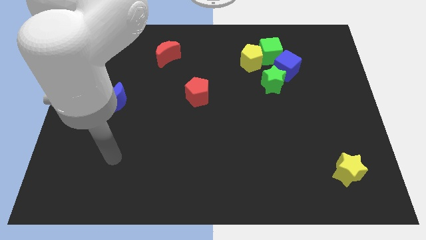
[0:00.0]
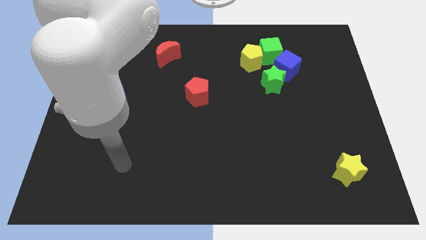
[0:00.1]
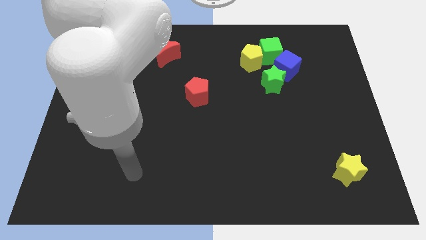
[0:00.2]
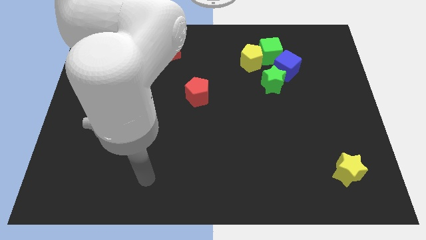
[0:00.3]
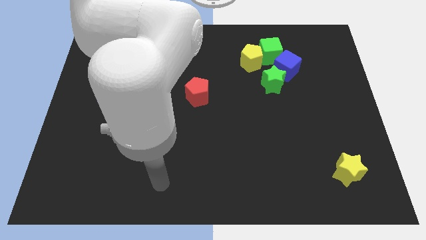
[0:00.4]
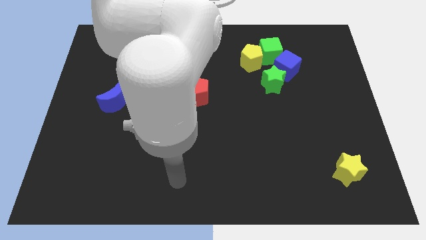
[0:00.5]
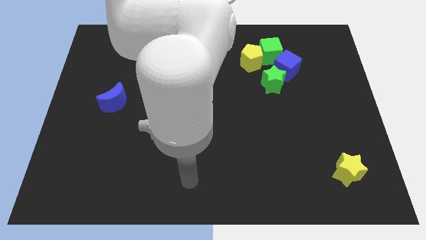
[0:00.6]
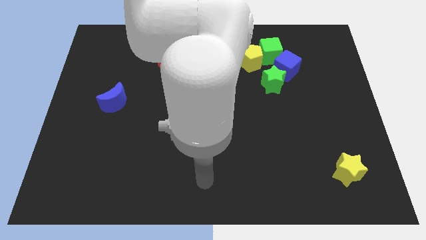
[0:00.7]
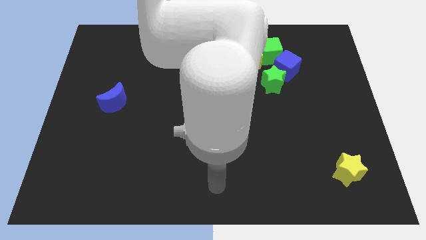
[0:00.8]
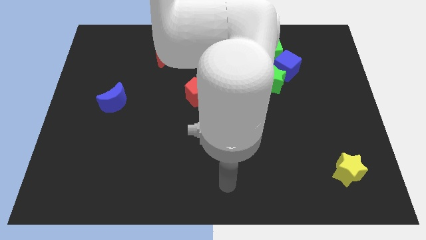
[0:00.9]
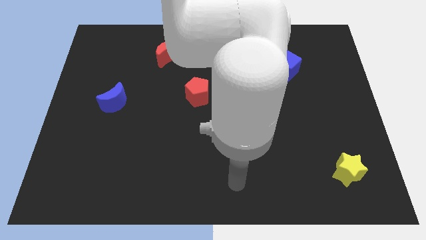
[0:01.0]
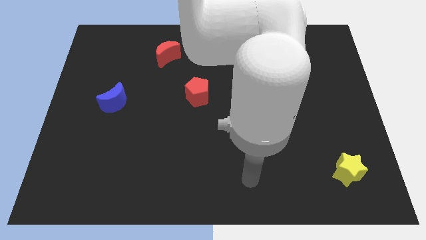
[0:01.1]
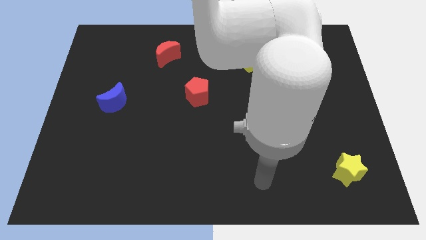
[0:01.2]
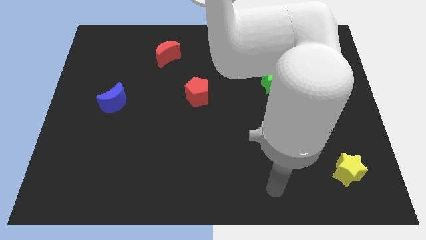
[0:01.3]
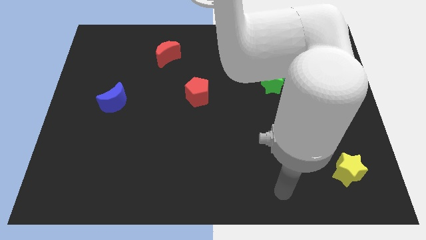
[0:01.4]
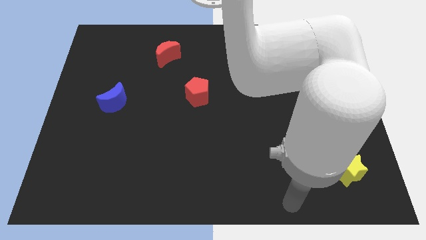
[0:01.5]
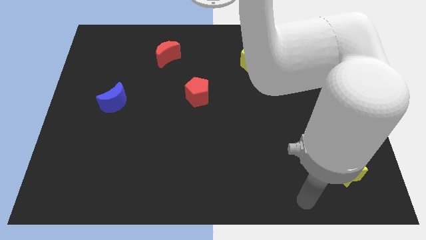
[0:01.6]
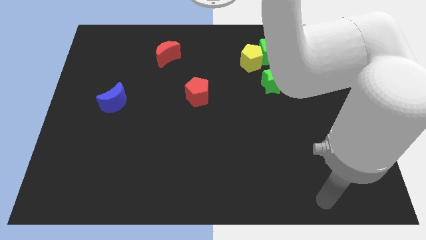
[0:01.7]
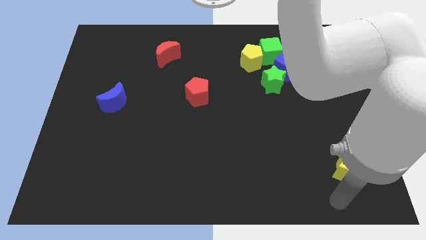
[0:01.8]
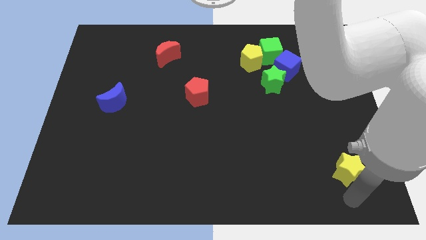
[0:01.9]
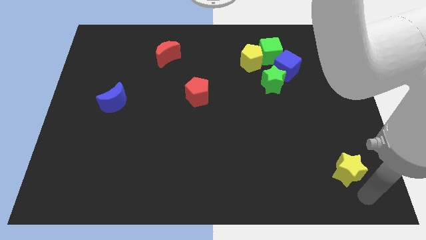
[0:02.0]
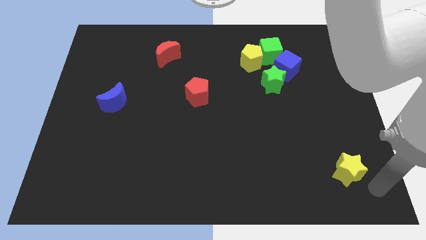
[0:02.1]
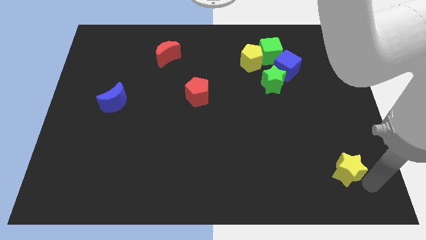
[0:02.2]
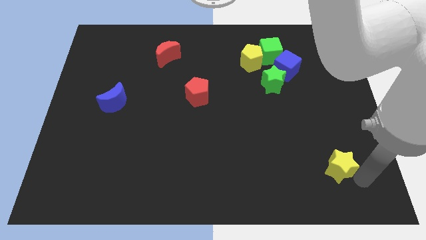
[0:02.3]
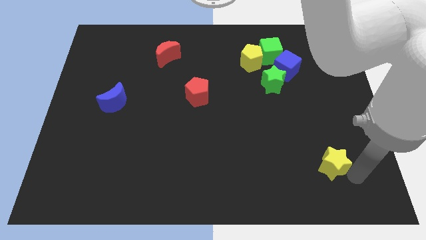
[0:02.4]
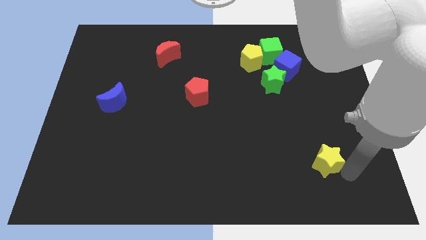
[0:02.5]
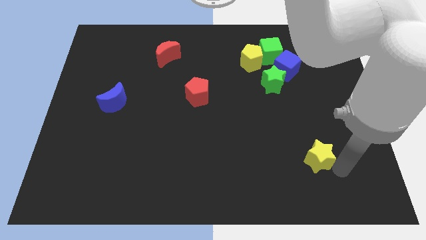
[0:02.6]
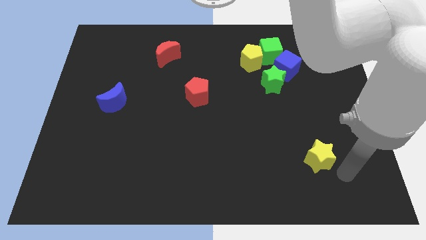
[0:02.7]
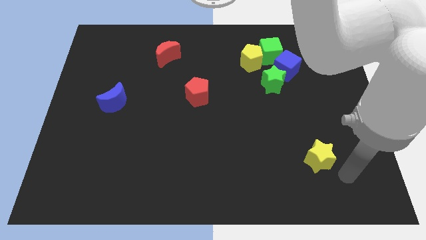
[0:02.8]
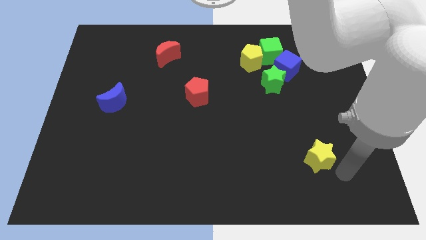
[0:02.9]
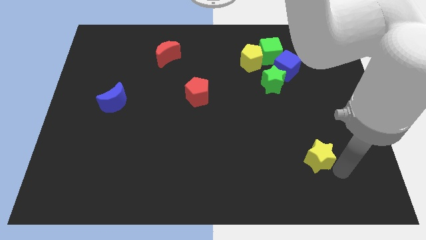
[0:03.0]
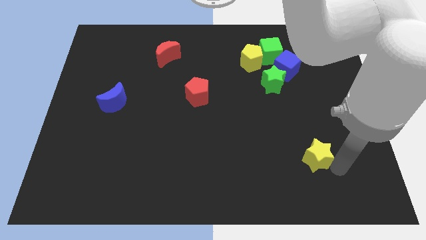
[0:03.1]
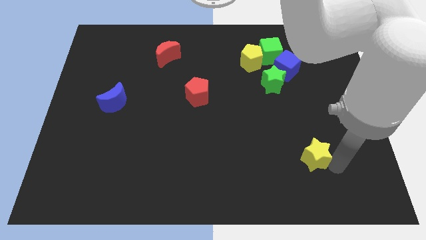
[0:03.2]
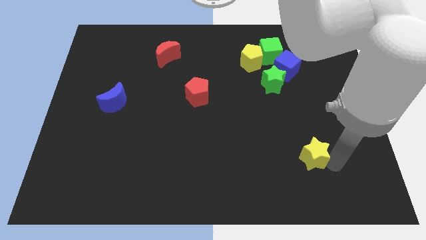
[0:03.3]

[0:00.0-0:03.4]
slightly move the yellow star diagonally upwards and left

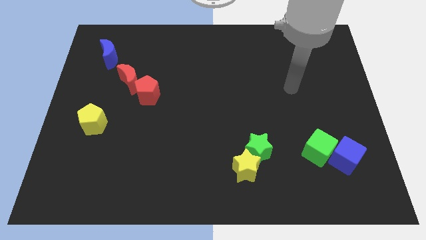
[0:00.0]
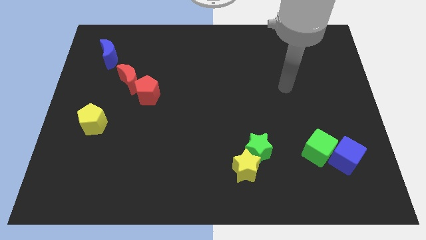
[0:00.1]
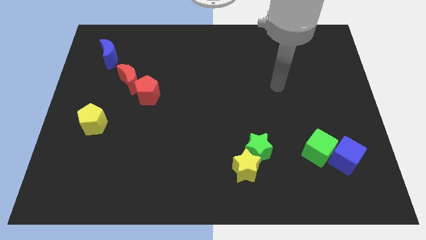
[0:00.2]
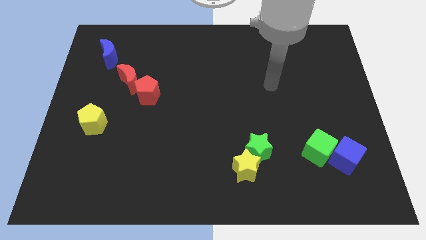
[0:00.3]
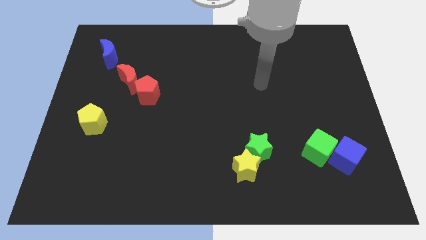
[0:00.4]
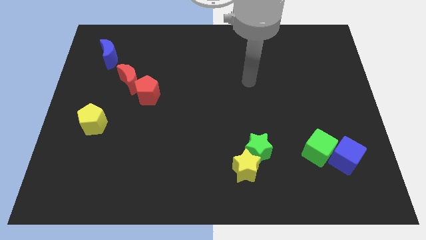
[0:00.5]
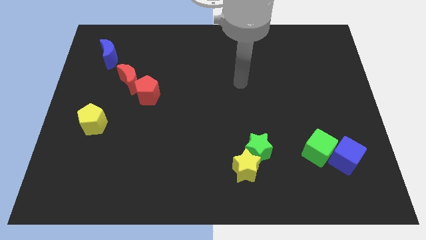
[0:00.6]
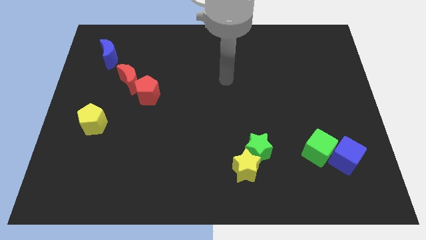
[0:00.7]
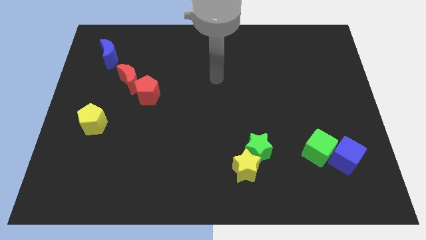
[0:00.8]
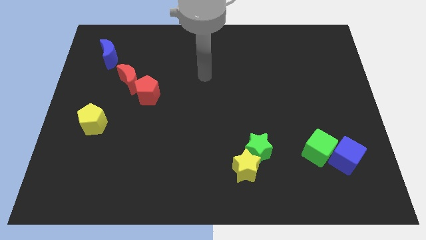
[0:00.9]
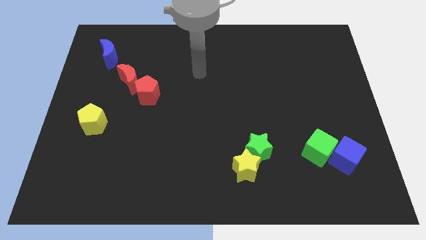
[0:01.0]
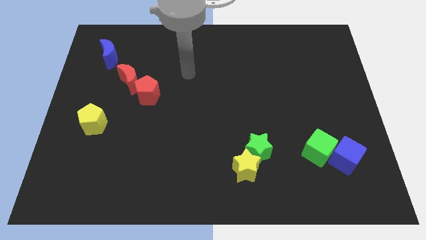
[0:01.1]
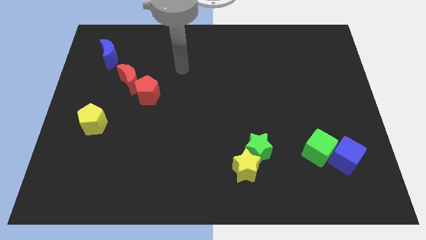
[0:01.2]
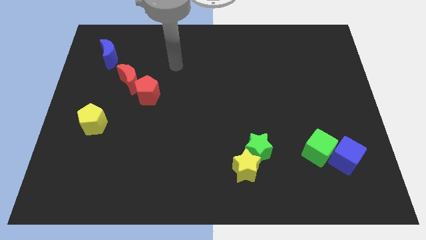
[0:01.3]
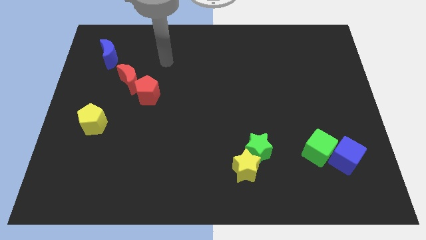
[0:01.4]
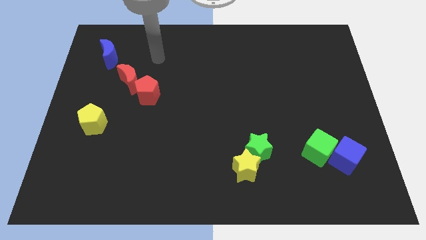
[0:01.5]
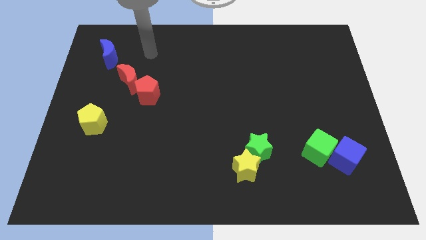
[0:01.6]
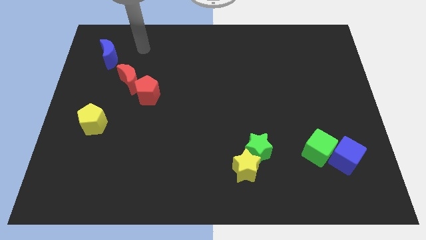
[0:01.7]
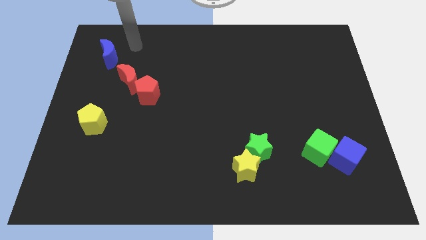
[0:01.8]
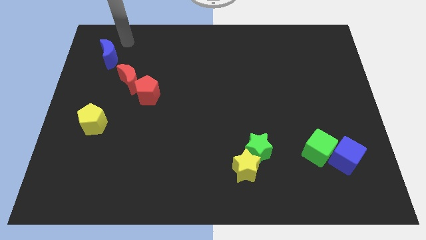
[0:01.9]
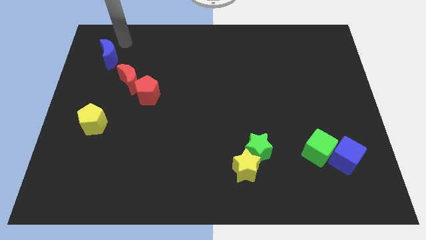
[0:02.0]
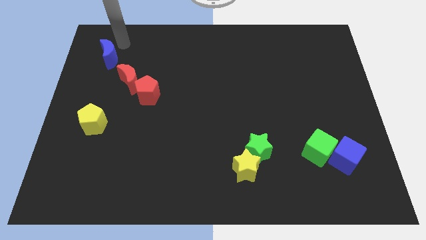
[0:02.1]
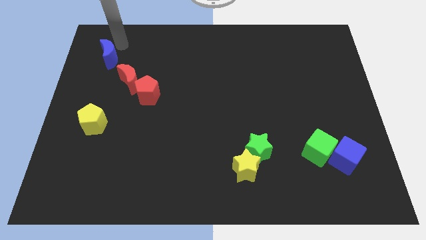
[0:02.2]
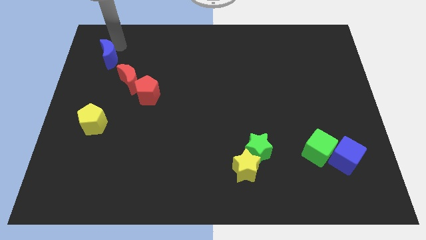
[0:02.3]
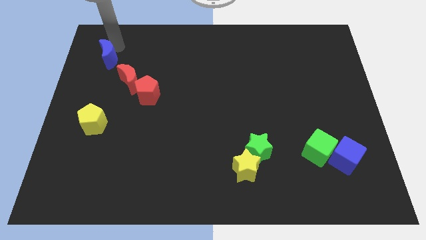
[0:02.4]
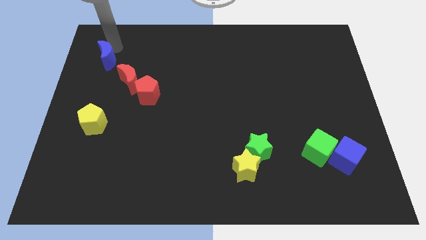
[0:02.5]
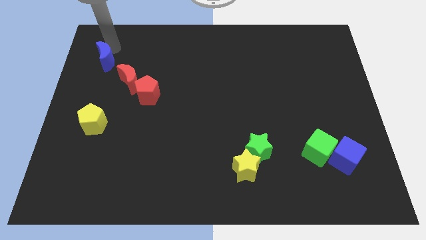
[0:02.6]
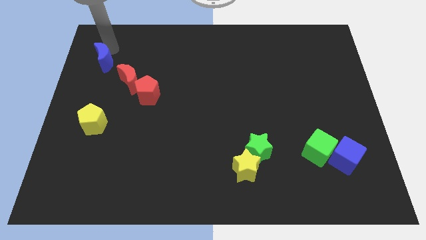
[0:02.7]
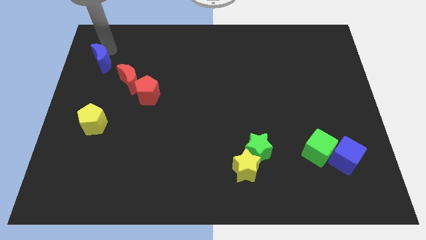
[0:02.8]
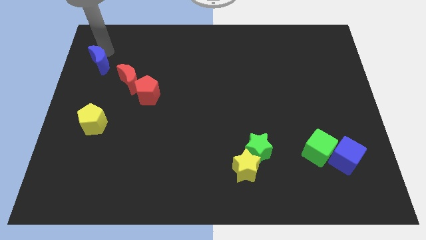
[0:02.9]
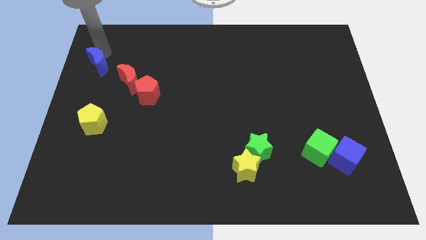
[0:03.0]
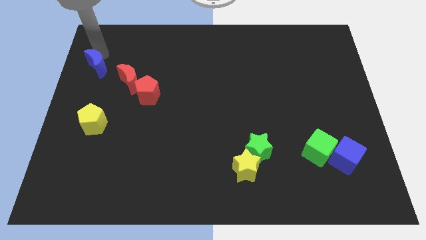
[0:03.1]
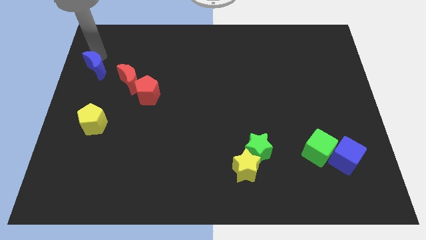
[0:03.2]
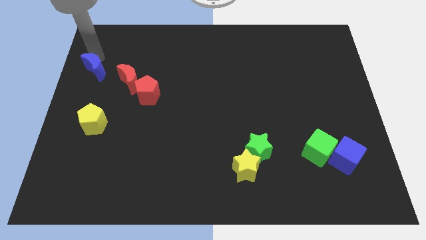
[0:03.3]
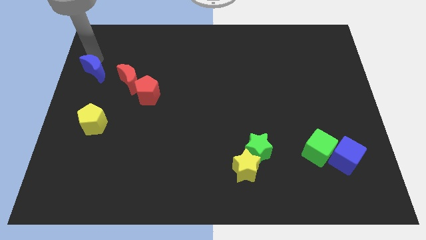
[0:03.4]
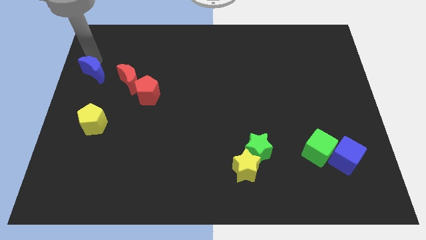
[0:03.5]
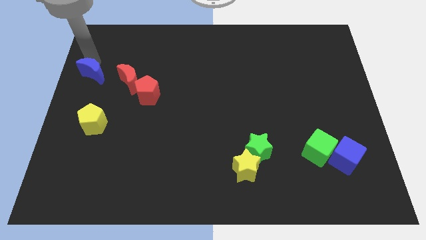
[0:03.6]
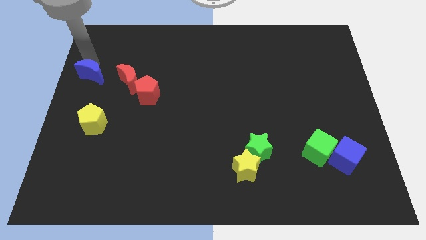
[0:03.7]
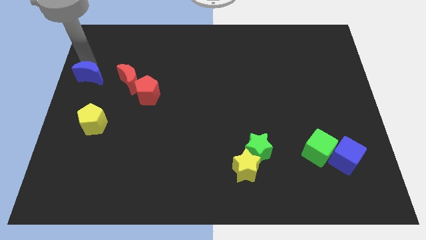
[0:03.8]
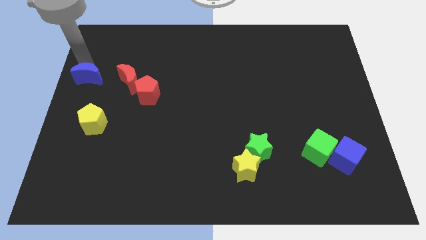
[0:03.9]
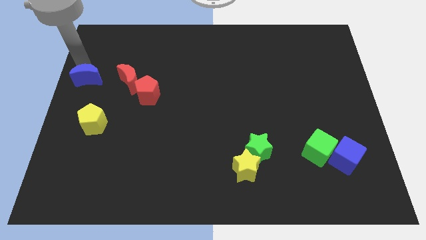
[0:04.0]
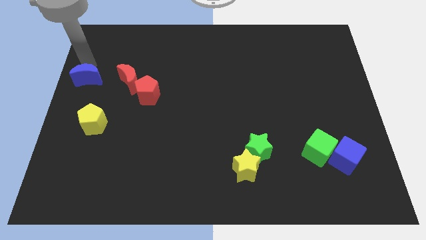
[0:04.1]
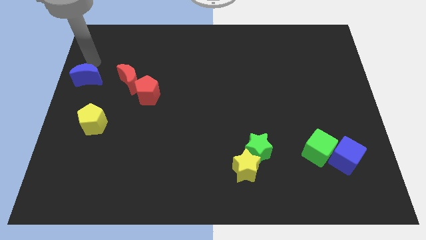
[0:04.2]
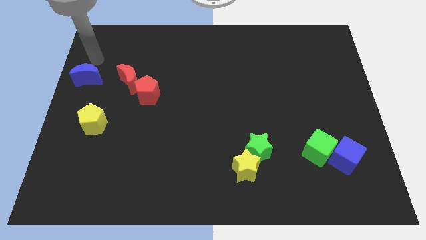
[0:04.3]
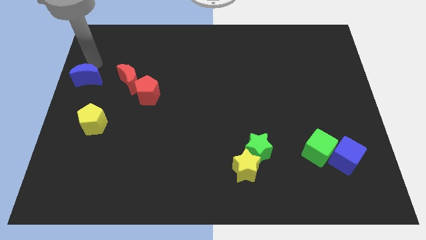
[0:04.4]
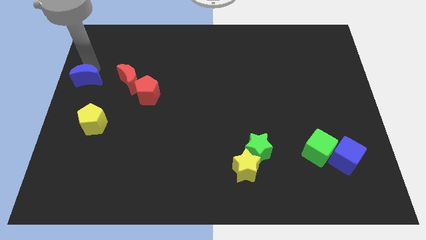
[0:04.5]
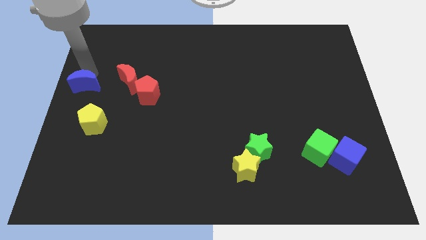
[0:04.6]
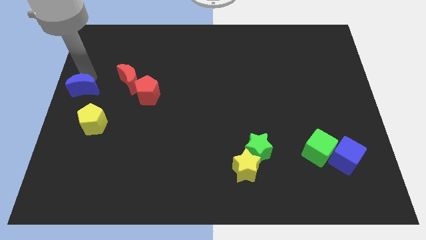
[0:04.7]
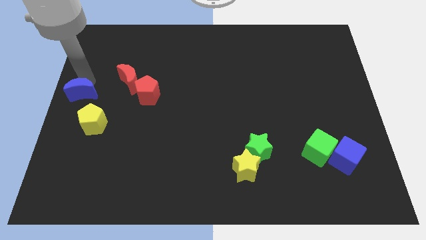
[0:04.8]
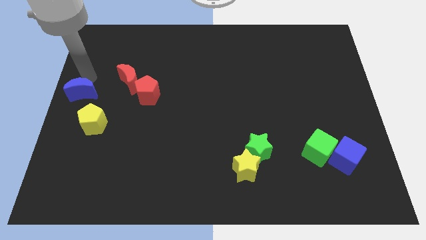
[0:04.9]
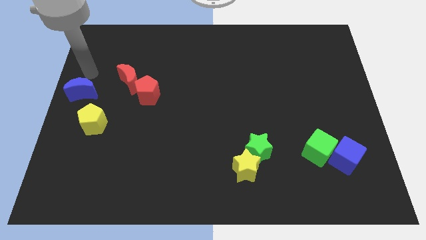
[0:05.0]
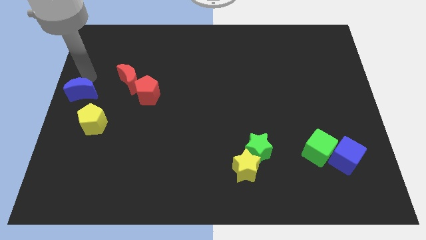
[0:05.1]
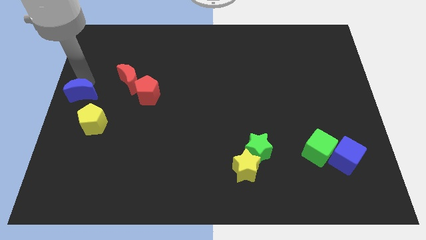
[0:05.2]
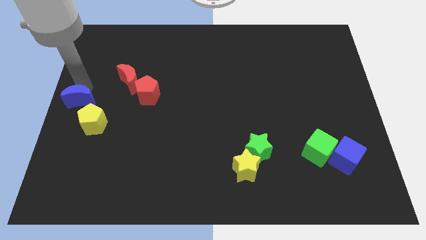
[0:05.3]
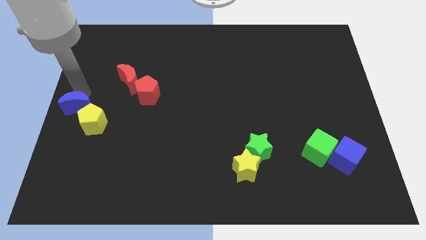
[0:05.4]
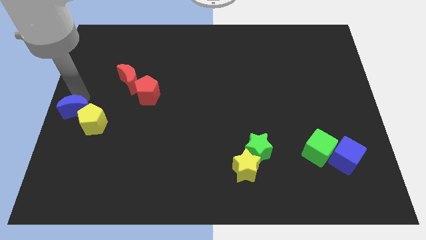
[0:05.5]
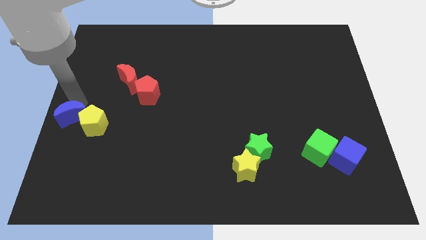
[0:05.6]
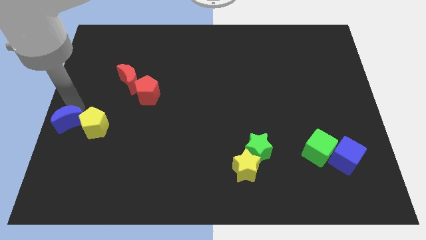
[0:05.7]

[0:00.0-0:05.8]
slide the blue moon downwards
